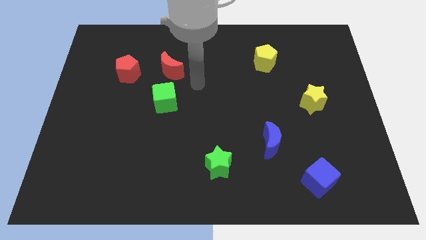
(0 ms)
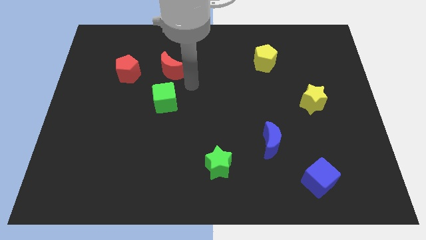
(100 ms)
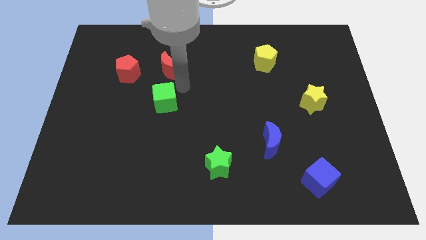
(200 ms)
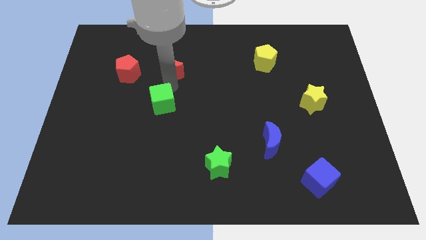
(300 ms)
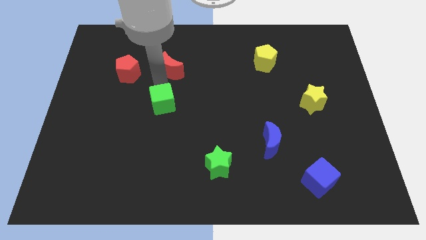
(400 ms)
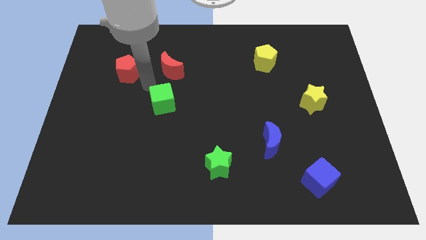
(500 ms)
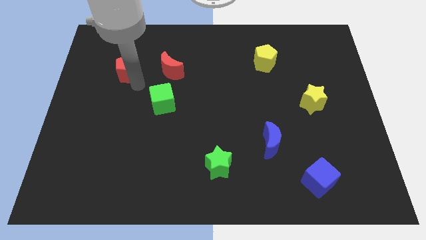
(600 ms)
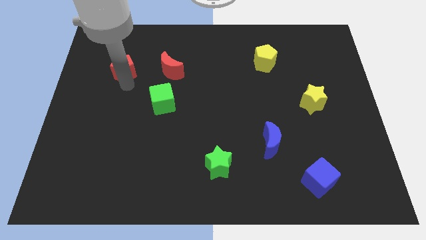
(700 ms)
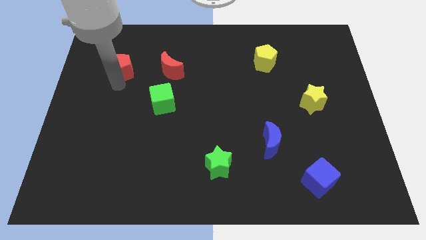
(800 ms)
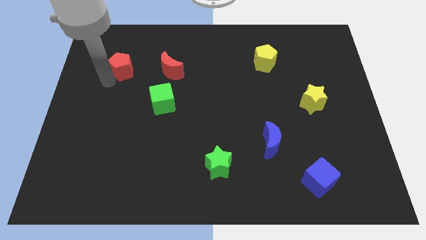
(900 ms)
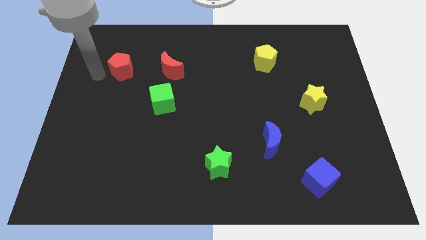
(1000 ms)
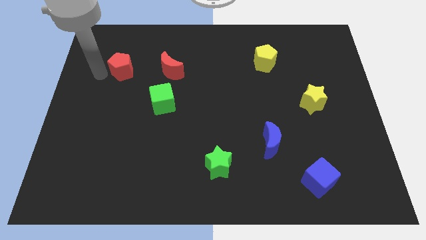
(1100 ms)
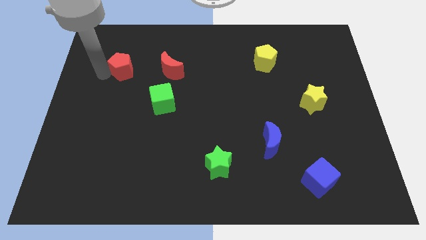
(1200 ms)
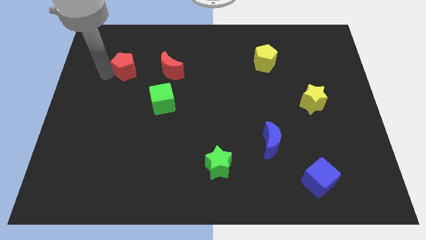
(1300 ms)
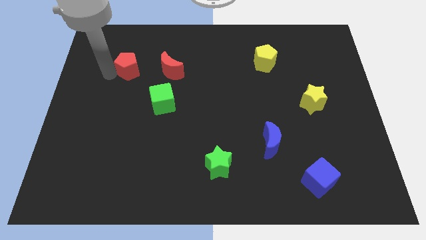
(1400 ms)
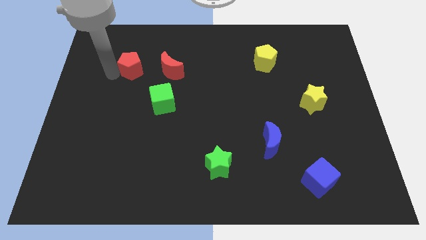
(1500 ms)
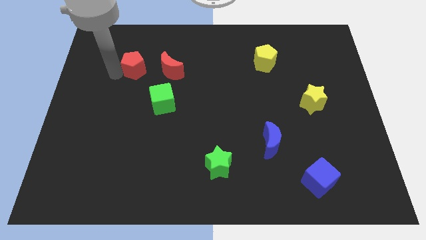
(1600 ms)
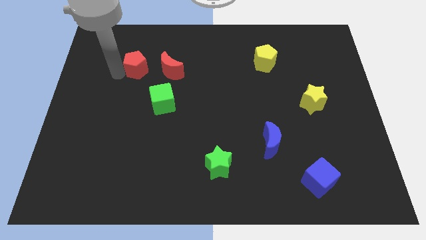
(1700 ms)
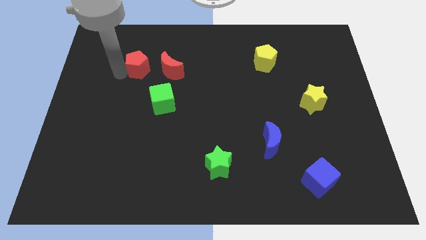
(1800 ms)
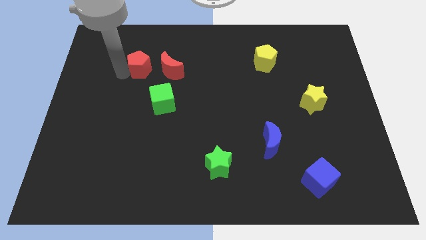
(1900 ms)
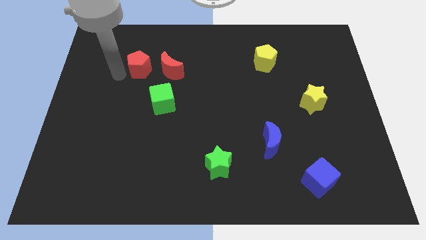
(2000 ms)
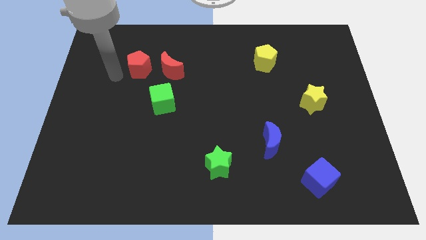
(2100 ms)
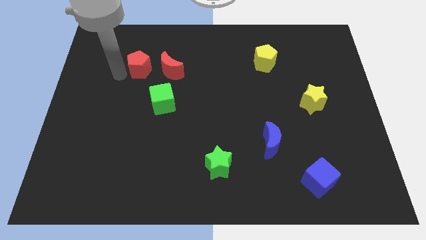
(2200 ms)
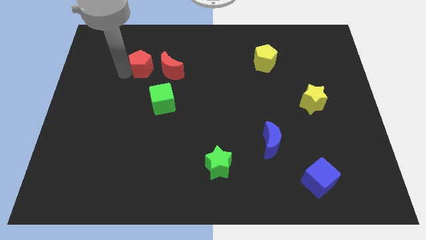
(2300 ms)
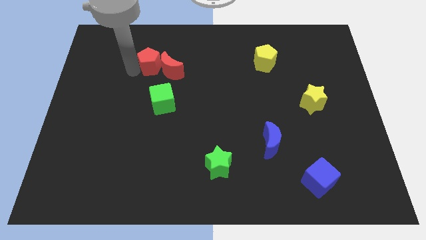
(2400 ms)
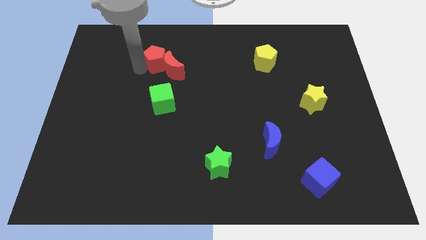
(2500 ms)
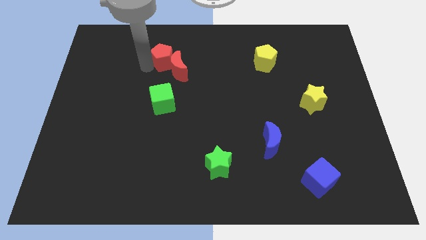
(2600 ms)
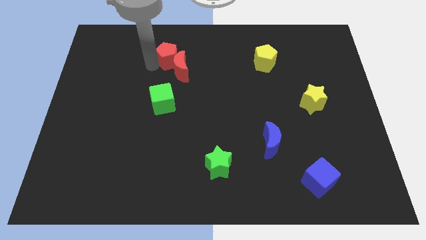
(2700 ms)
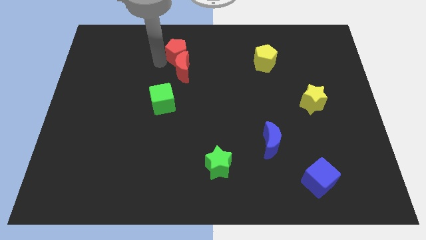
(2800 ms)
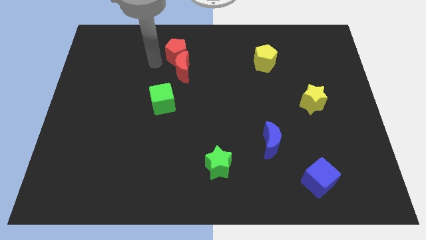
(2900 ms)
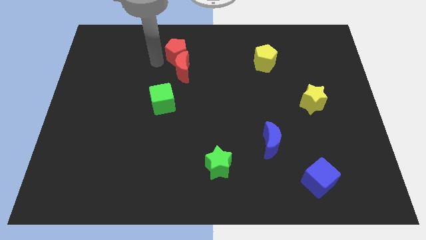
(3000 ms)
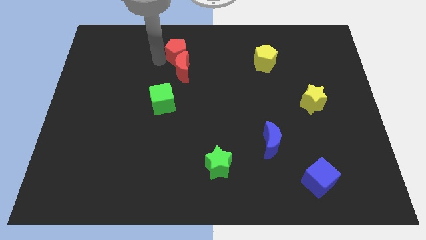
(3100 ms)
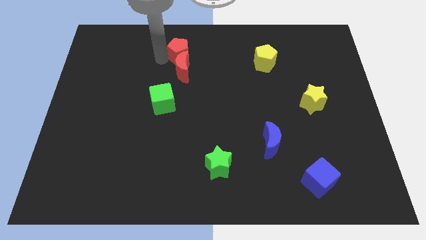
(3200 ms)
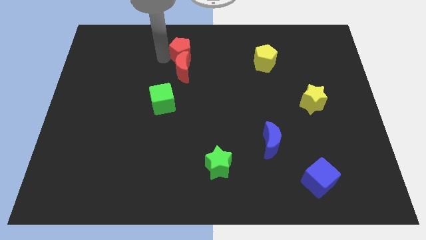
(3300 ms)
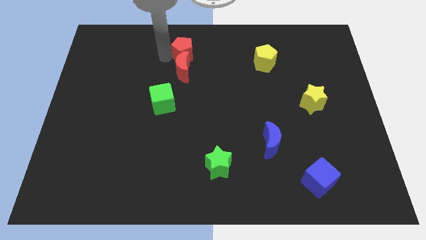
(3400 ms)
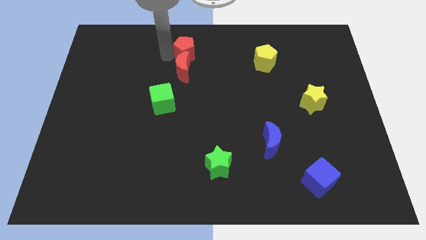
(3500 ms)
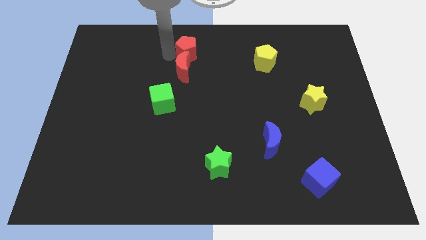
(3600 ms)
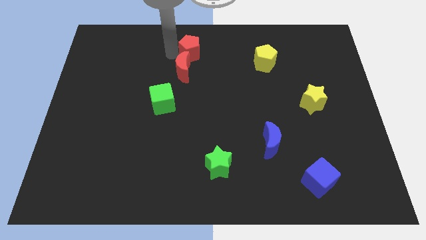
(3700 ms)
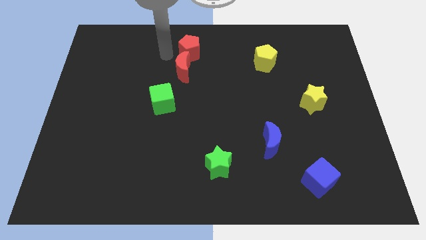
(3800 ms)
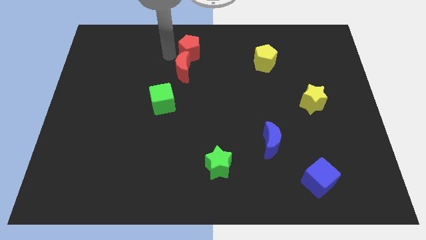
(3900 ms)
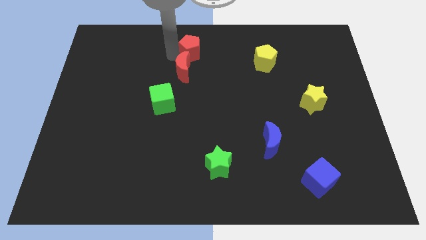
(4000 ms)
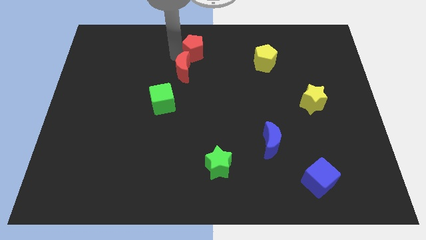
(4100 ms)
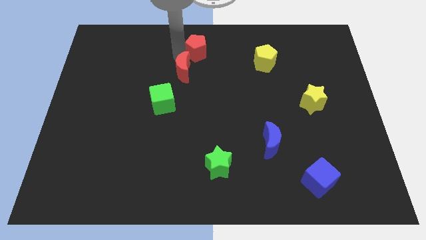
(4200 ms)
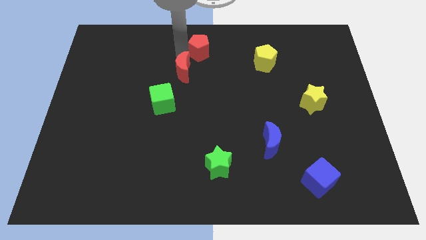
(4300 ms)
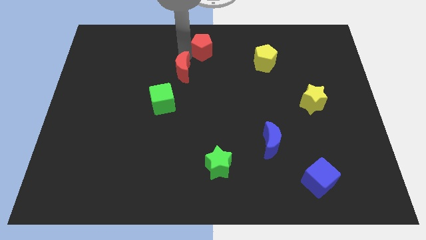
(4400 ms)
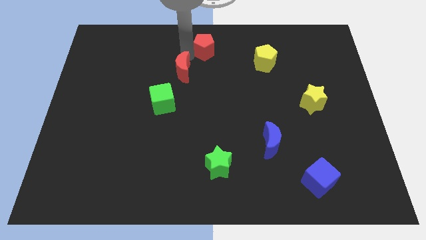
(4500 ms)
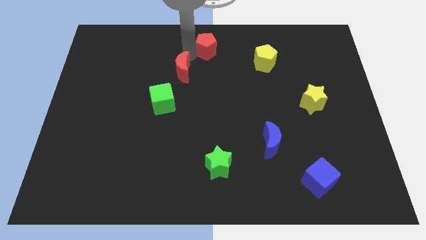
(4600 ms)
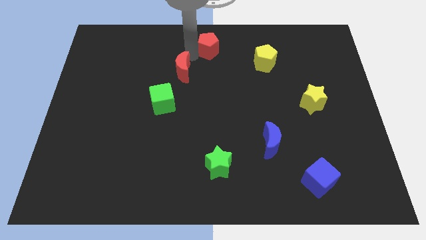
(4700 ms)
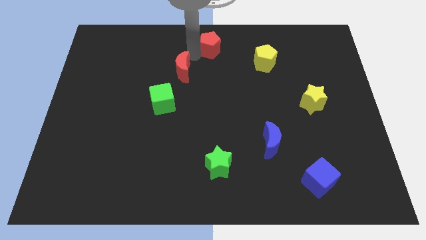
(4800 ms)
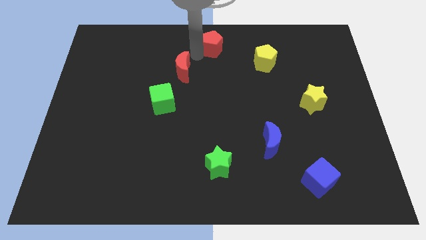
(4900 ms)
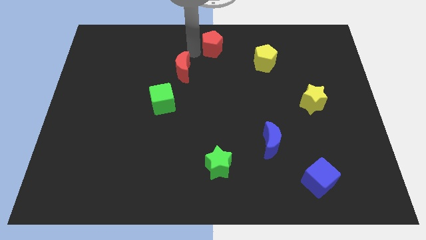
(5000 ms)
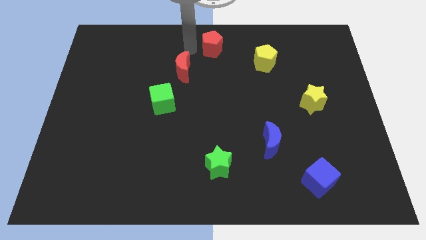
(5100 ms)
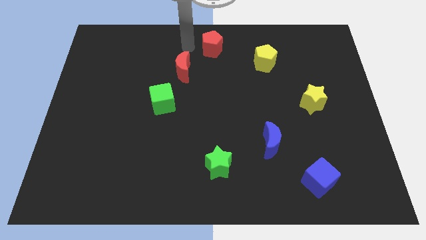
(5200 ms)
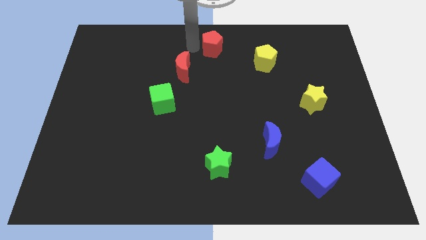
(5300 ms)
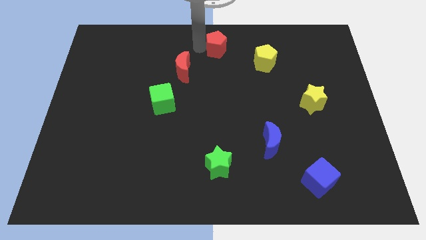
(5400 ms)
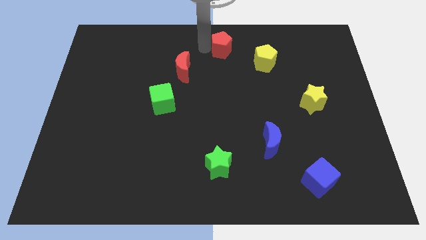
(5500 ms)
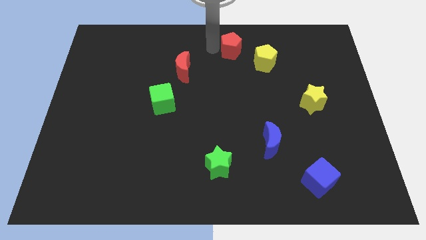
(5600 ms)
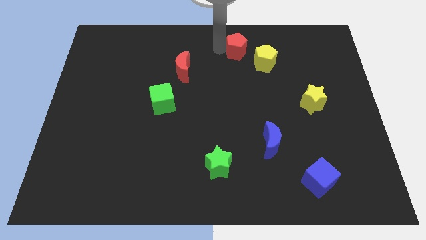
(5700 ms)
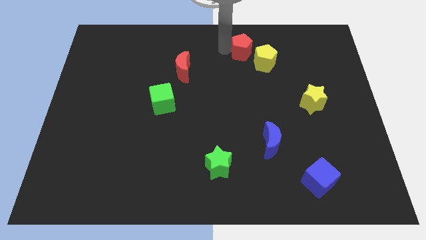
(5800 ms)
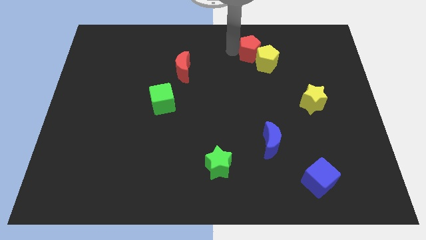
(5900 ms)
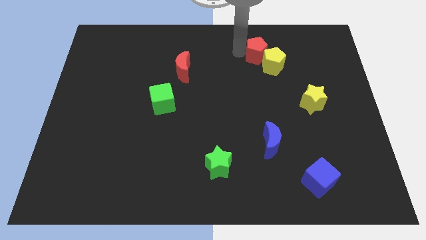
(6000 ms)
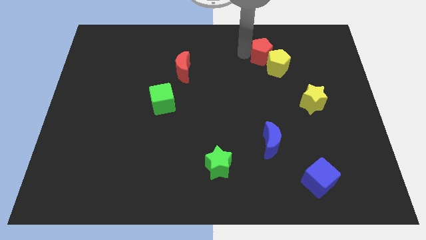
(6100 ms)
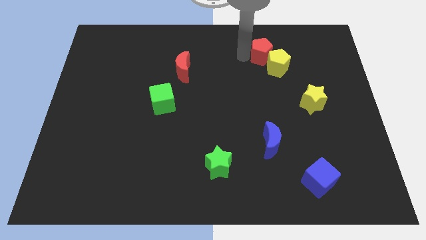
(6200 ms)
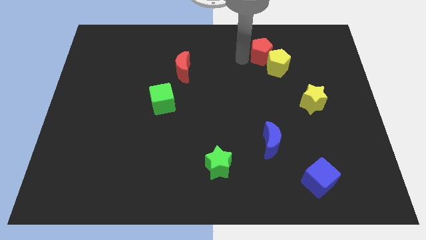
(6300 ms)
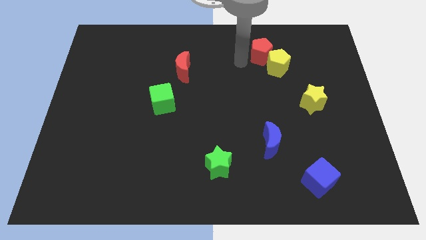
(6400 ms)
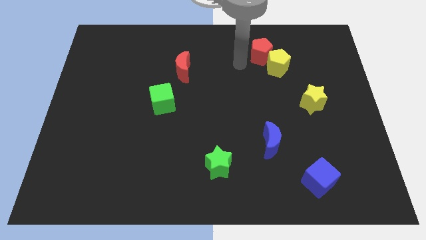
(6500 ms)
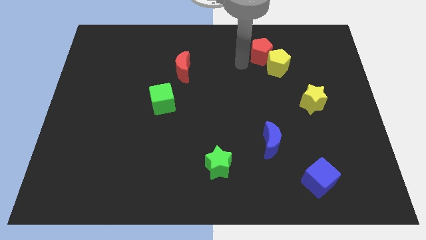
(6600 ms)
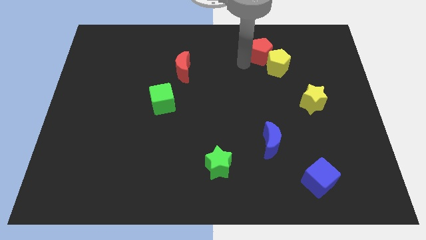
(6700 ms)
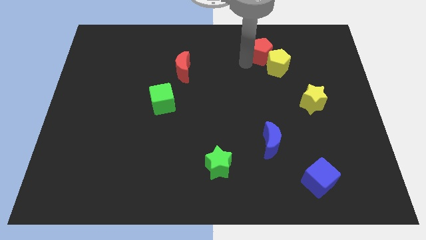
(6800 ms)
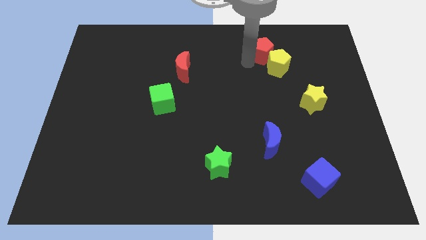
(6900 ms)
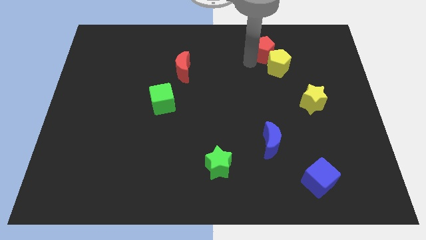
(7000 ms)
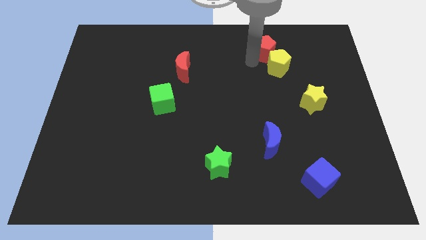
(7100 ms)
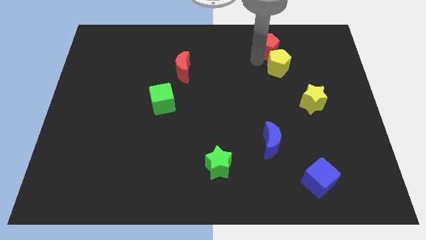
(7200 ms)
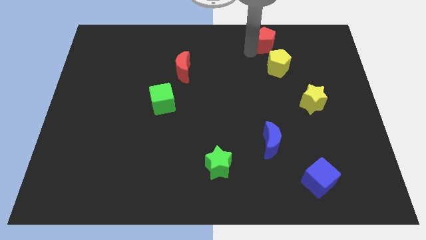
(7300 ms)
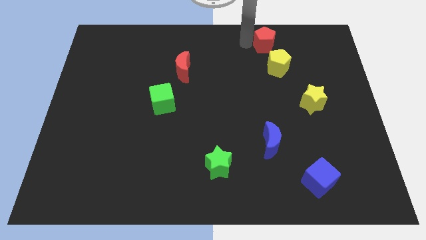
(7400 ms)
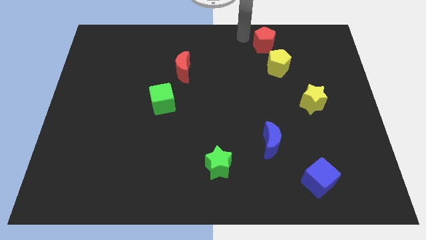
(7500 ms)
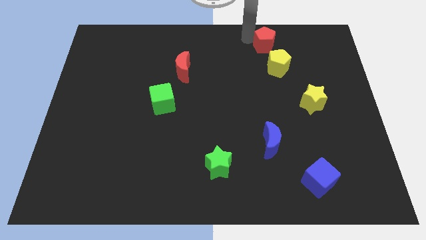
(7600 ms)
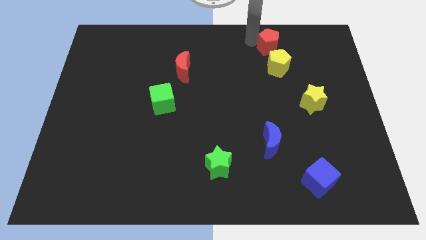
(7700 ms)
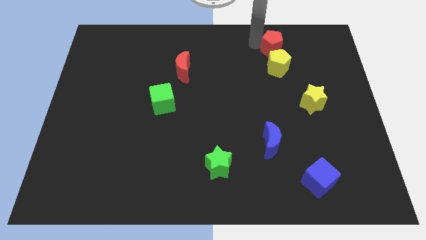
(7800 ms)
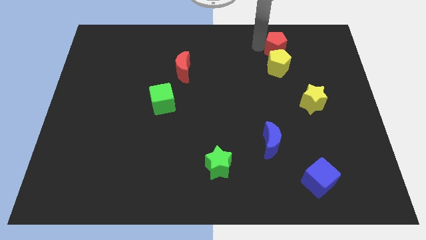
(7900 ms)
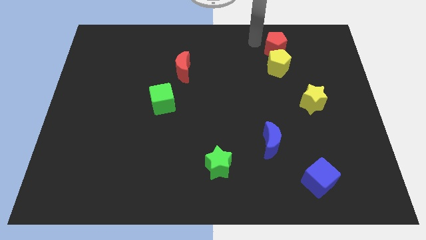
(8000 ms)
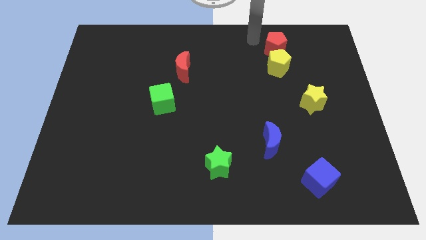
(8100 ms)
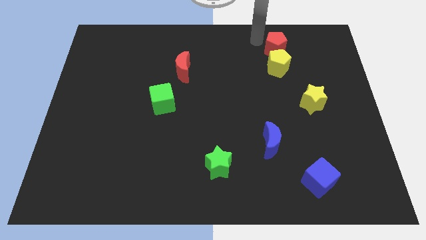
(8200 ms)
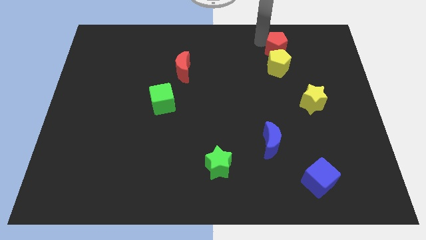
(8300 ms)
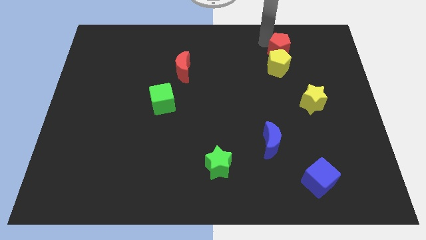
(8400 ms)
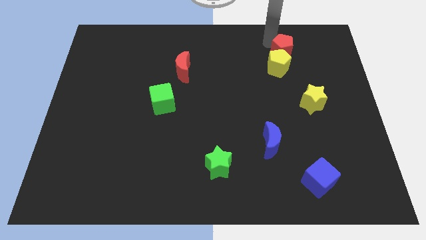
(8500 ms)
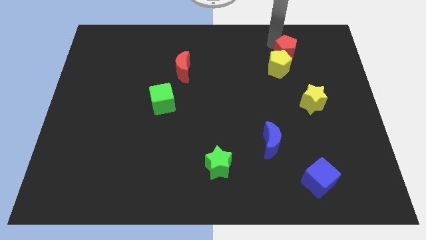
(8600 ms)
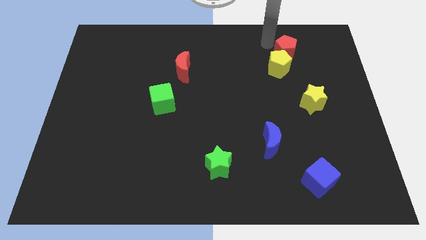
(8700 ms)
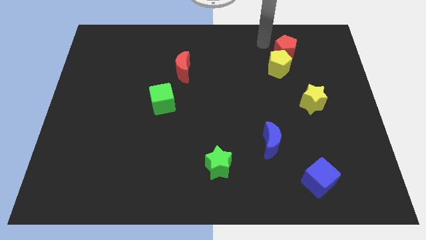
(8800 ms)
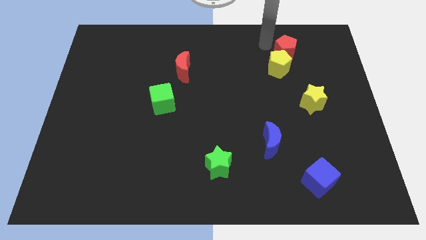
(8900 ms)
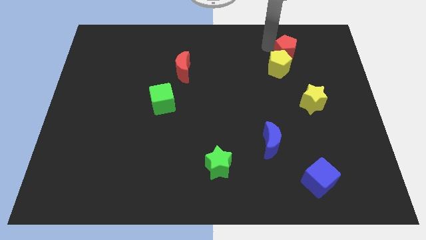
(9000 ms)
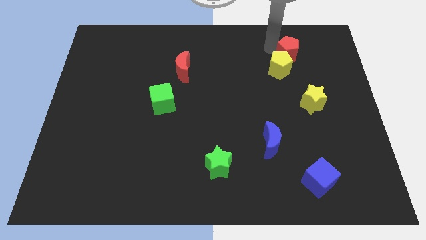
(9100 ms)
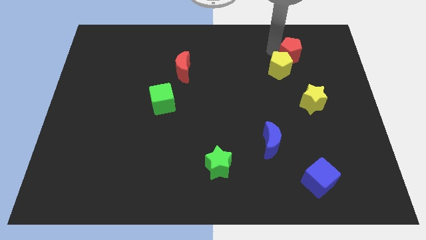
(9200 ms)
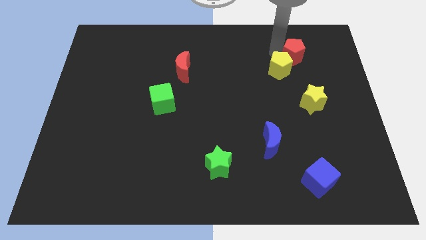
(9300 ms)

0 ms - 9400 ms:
slide the red pentagon to the right of the yellow pentagon
